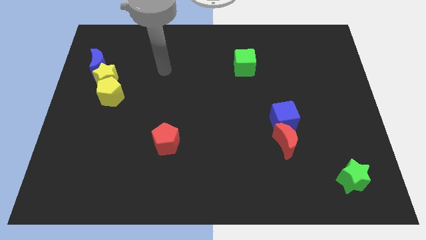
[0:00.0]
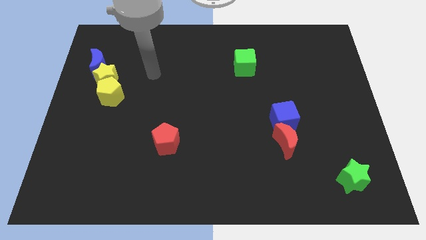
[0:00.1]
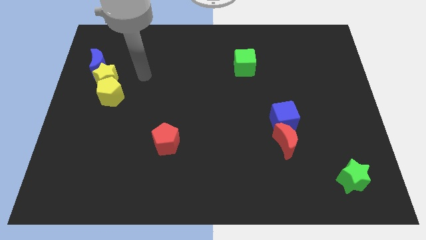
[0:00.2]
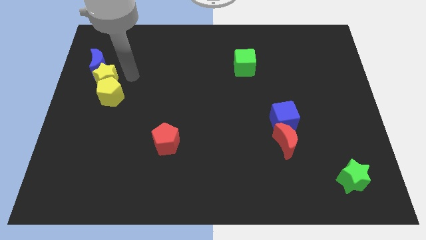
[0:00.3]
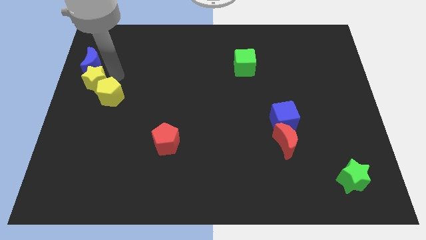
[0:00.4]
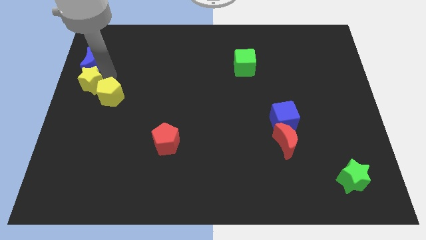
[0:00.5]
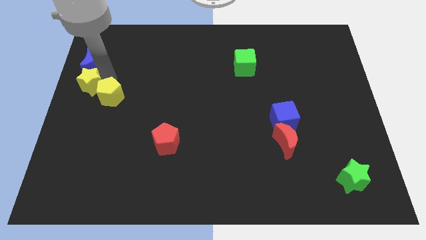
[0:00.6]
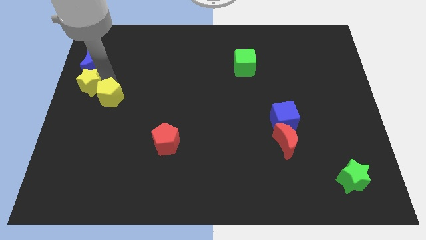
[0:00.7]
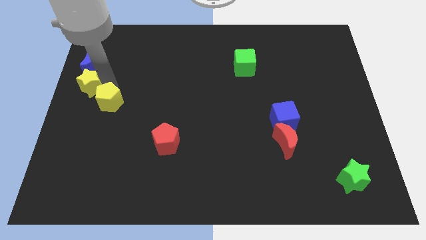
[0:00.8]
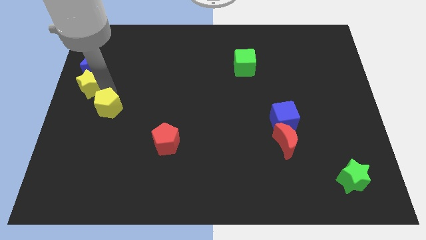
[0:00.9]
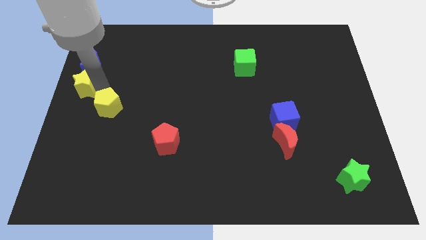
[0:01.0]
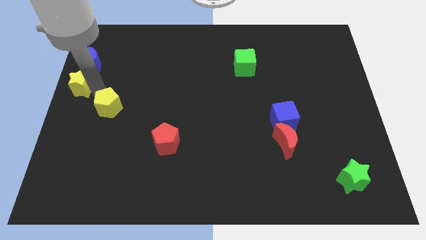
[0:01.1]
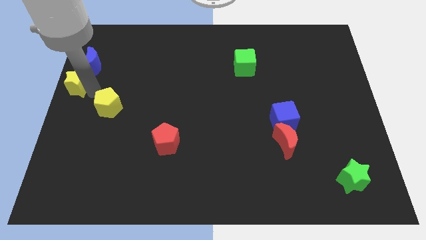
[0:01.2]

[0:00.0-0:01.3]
pull the yellow pentagon apart from the yellow star

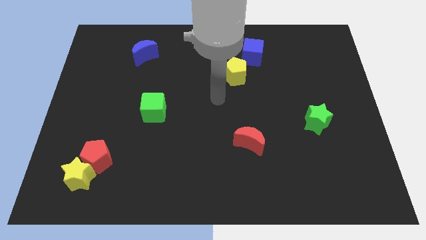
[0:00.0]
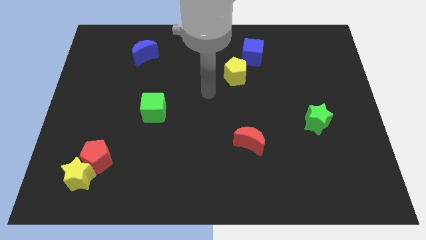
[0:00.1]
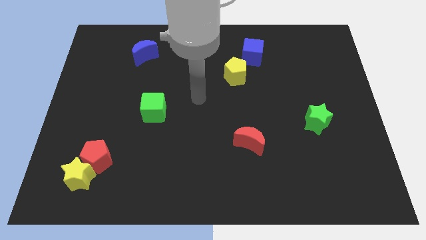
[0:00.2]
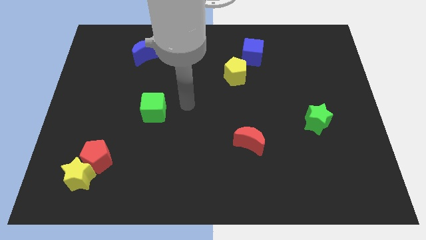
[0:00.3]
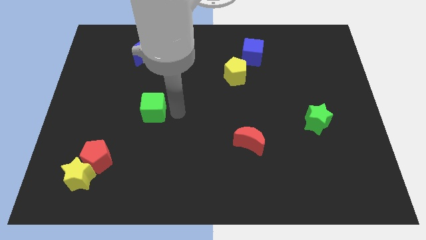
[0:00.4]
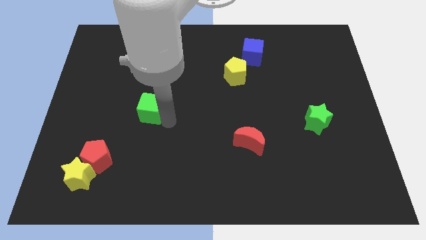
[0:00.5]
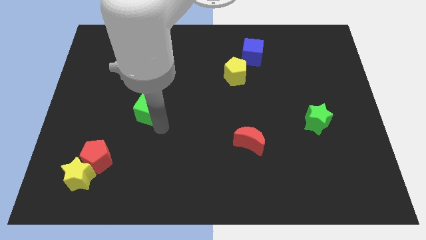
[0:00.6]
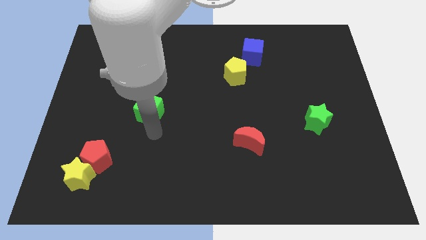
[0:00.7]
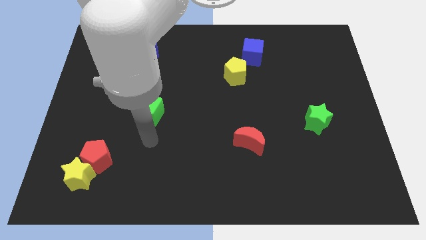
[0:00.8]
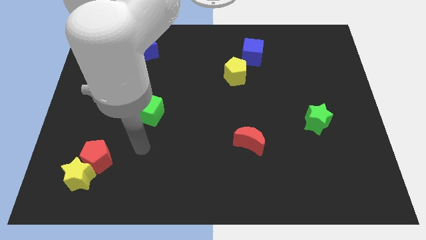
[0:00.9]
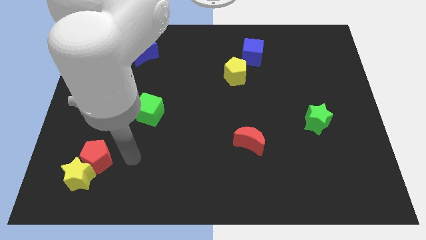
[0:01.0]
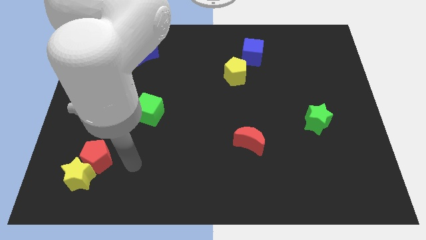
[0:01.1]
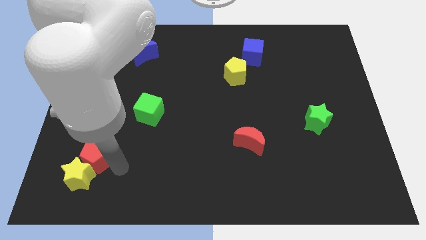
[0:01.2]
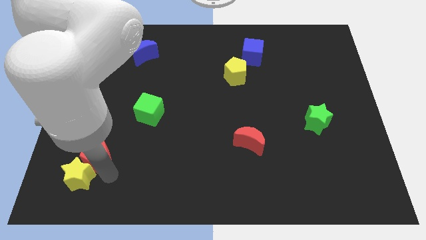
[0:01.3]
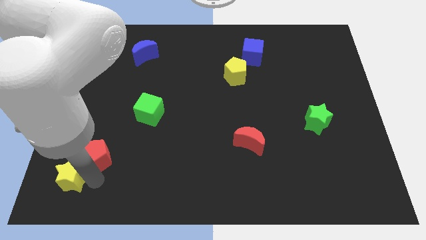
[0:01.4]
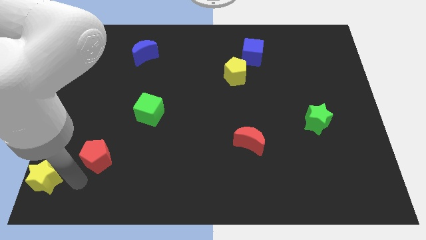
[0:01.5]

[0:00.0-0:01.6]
separate the red pentagon from the yellow star

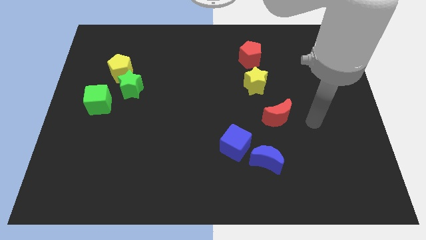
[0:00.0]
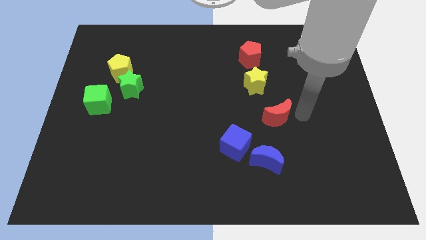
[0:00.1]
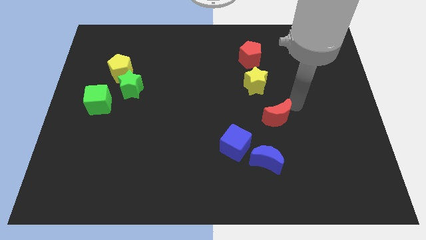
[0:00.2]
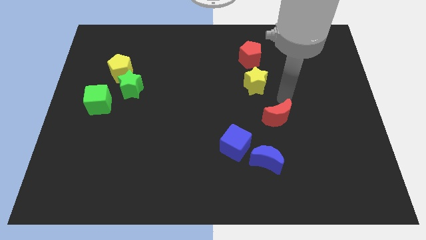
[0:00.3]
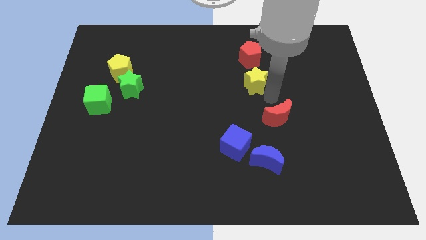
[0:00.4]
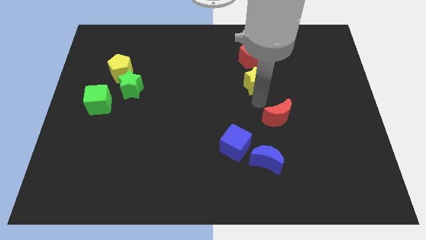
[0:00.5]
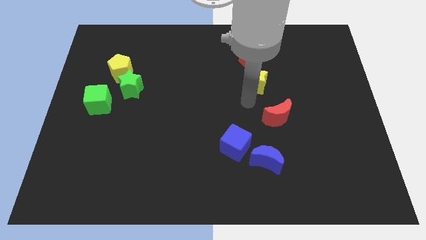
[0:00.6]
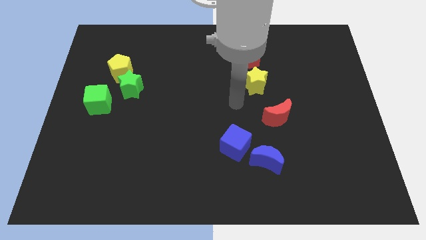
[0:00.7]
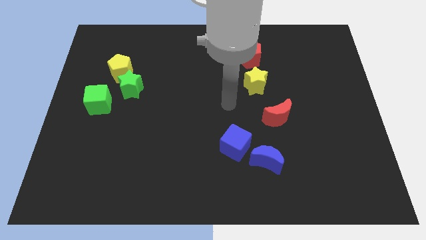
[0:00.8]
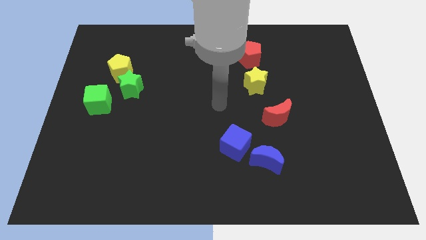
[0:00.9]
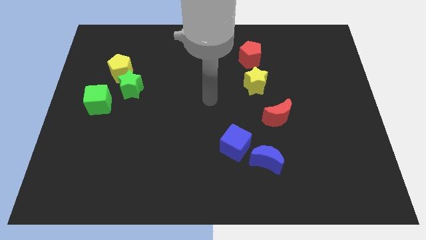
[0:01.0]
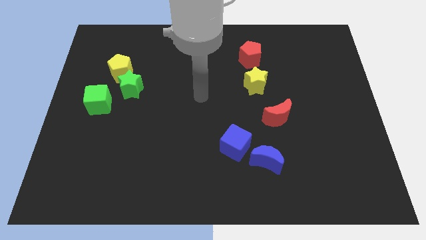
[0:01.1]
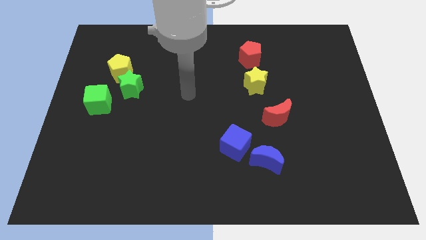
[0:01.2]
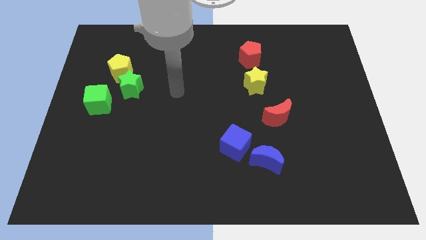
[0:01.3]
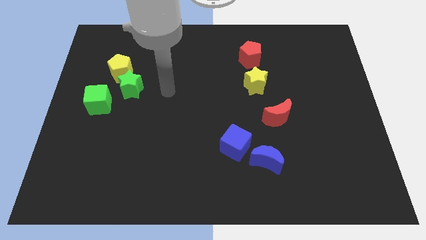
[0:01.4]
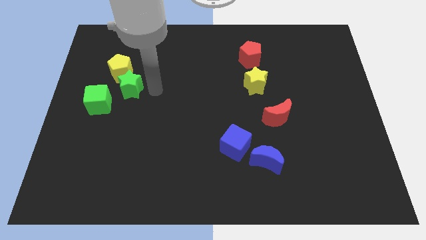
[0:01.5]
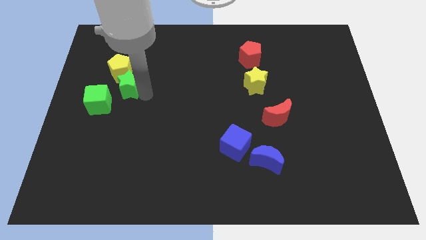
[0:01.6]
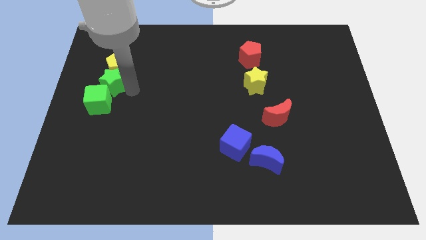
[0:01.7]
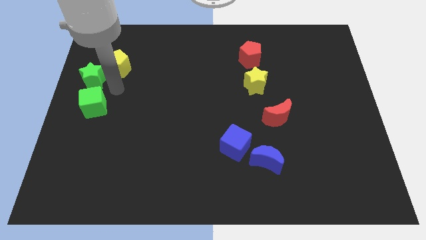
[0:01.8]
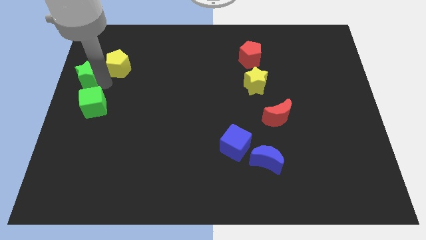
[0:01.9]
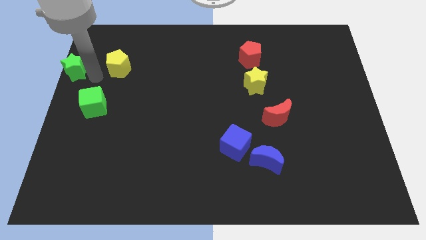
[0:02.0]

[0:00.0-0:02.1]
pull the yellow pentagon apart from the green star

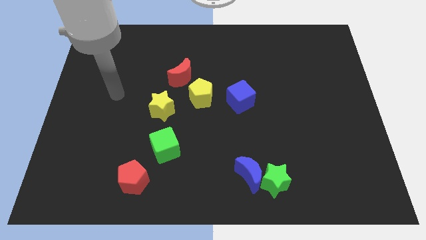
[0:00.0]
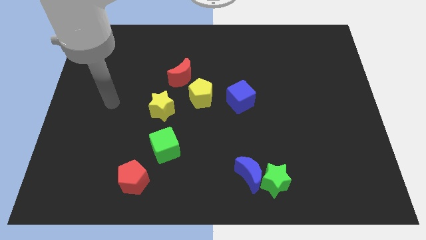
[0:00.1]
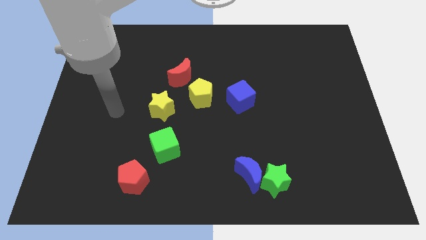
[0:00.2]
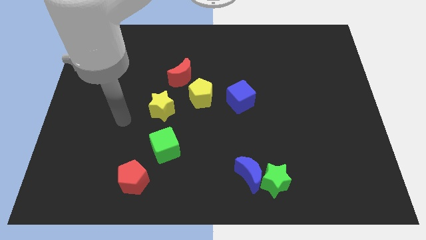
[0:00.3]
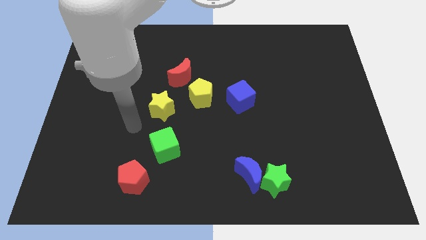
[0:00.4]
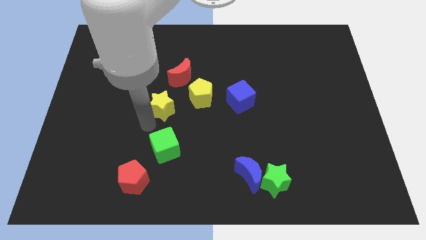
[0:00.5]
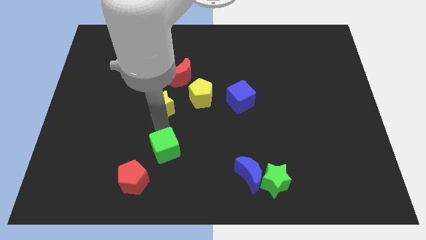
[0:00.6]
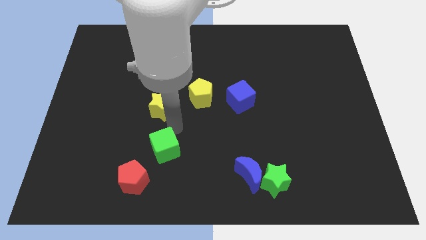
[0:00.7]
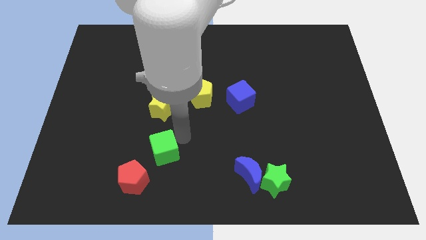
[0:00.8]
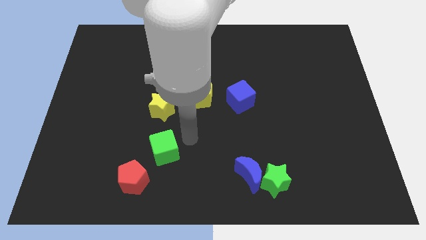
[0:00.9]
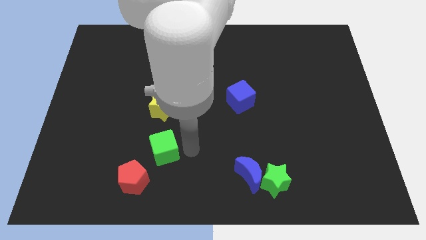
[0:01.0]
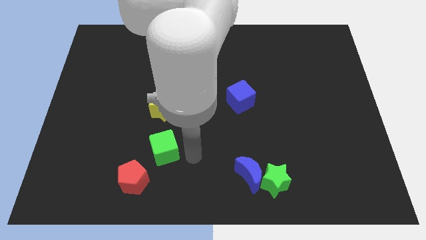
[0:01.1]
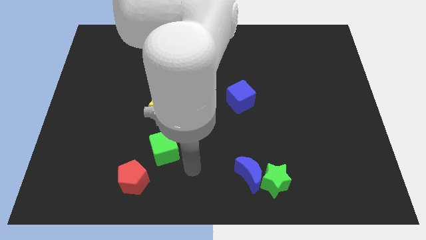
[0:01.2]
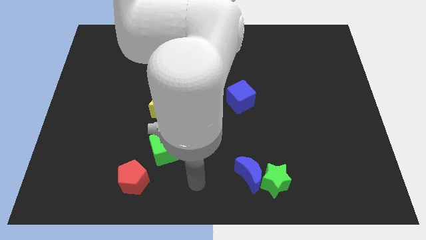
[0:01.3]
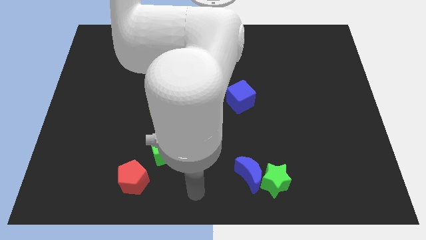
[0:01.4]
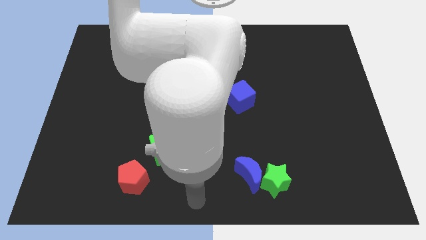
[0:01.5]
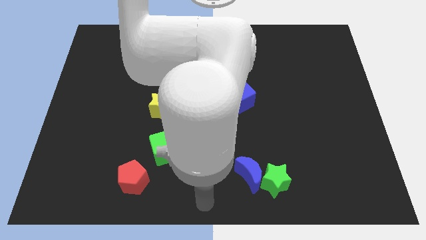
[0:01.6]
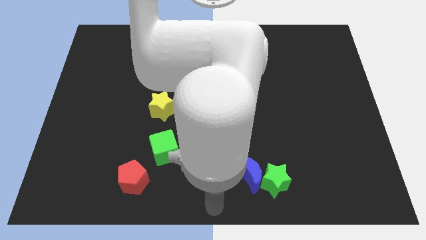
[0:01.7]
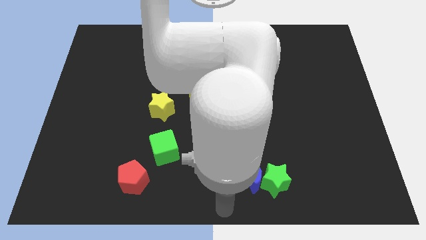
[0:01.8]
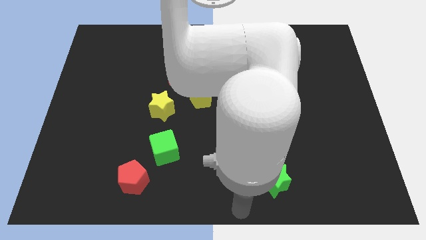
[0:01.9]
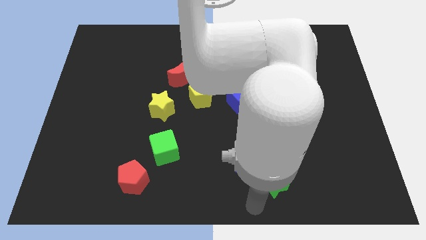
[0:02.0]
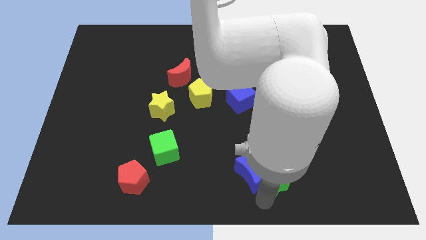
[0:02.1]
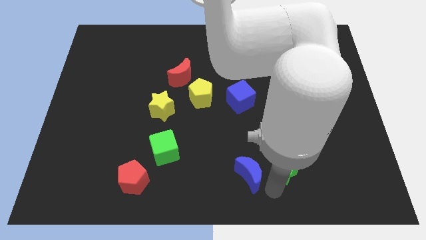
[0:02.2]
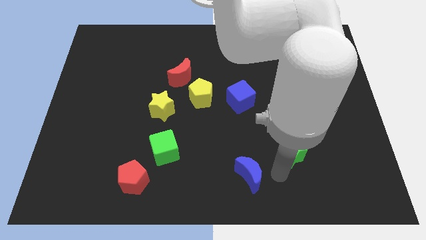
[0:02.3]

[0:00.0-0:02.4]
move the blue moon away from the green star

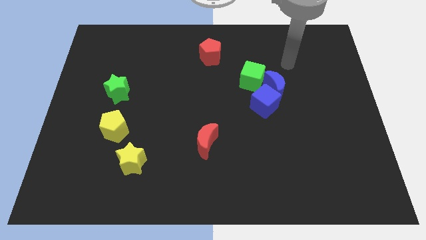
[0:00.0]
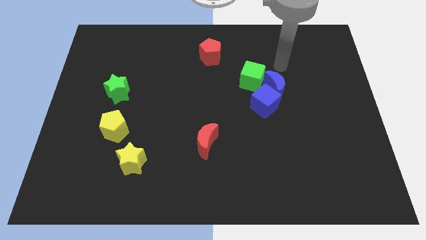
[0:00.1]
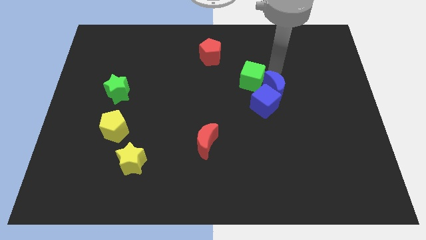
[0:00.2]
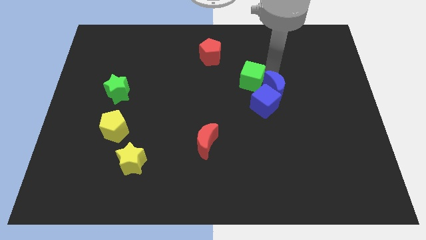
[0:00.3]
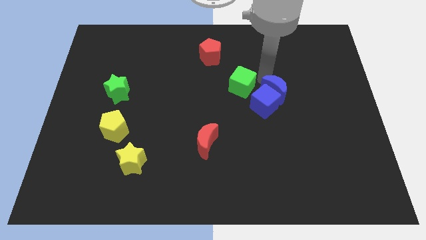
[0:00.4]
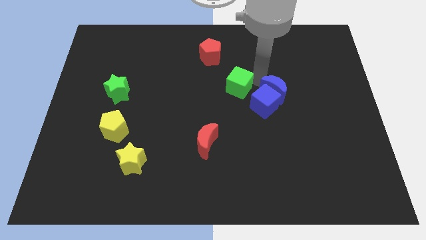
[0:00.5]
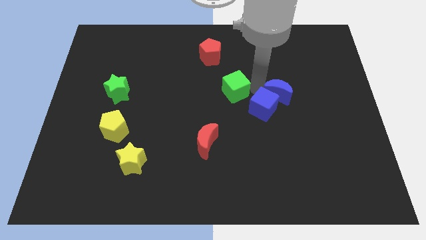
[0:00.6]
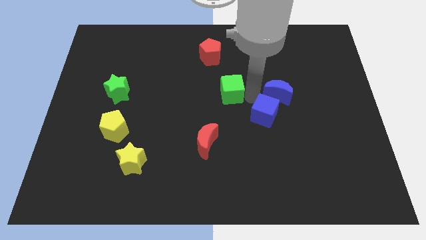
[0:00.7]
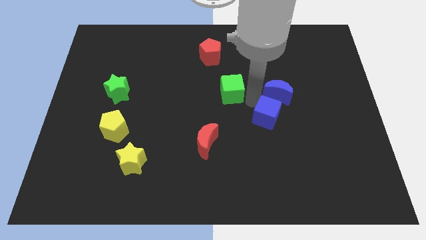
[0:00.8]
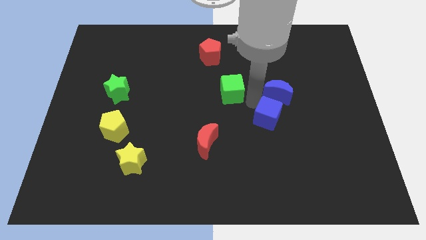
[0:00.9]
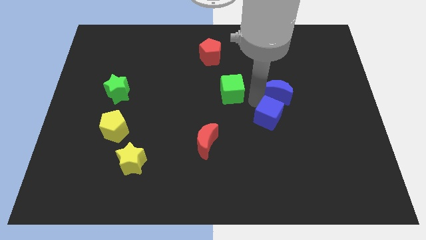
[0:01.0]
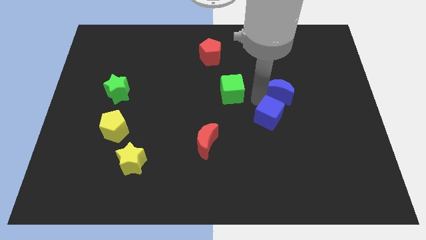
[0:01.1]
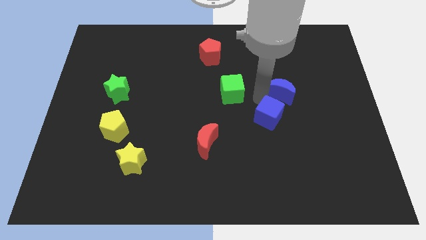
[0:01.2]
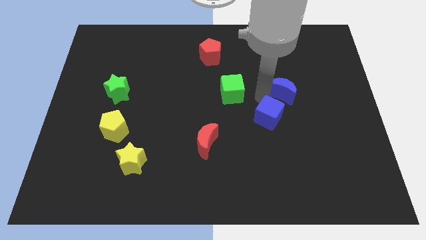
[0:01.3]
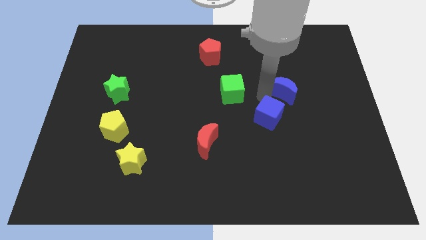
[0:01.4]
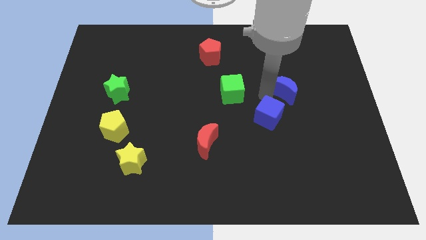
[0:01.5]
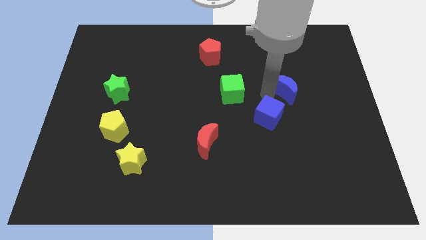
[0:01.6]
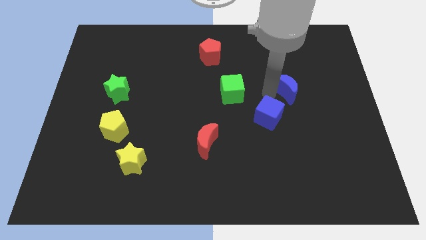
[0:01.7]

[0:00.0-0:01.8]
separate the blue moon from the blue cube and green cube

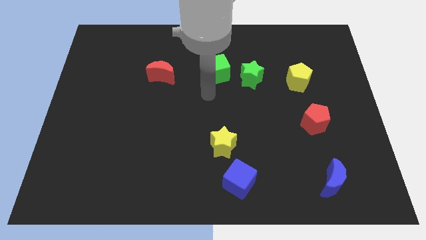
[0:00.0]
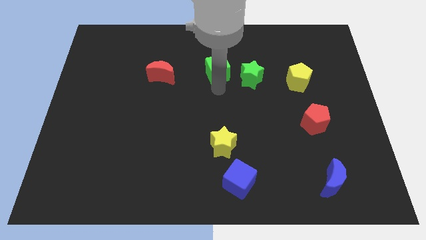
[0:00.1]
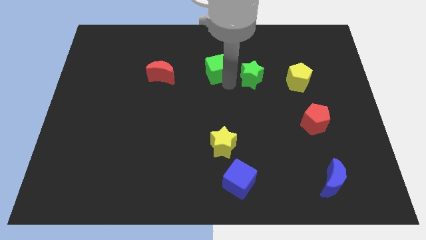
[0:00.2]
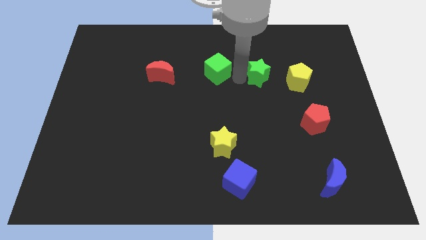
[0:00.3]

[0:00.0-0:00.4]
pull the green cube apart from the green star
